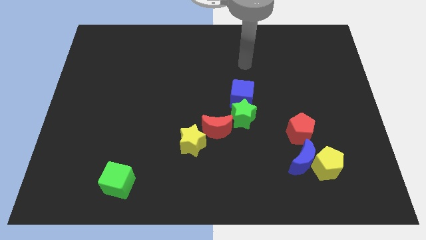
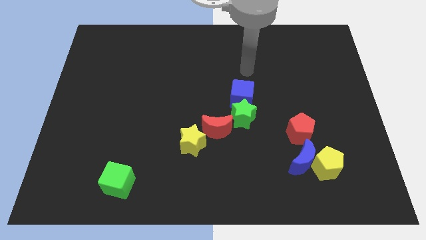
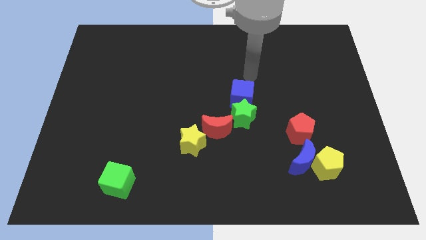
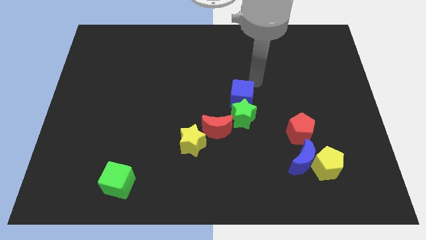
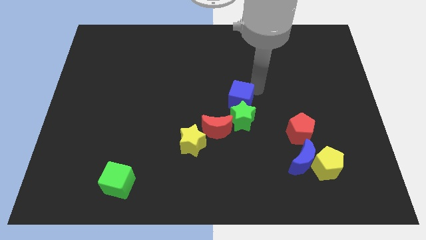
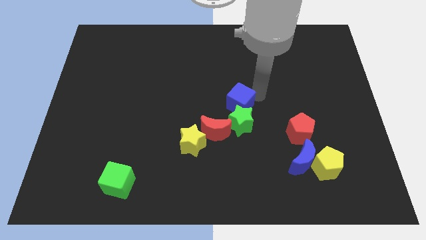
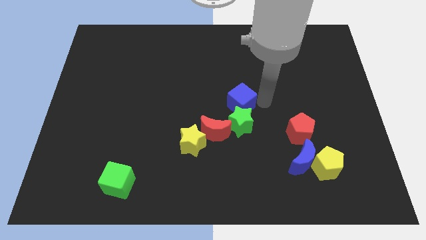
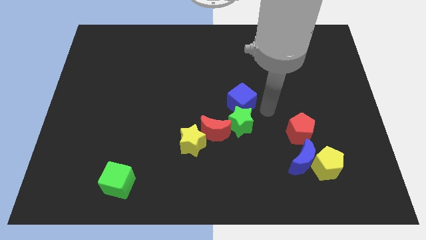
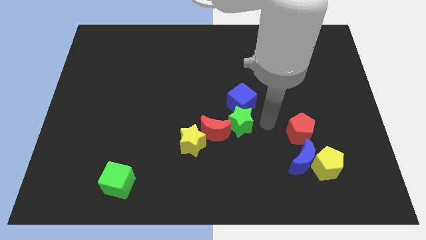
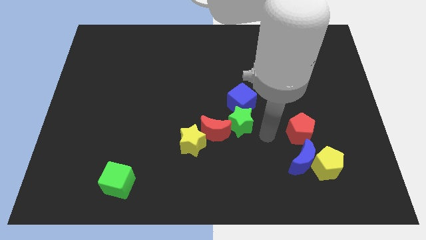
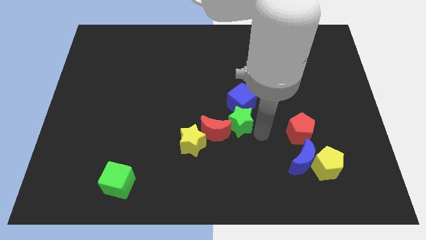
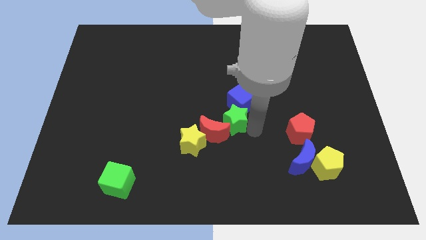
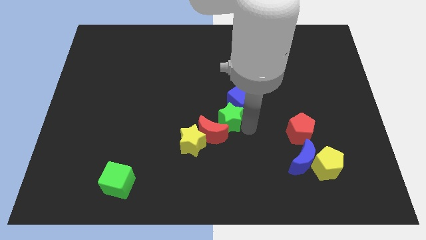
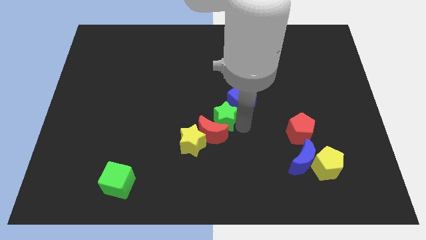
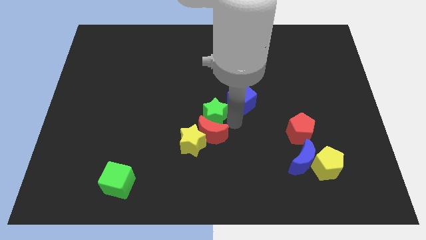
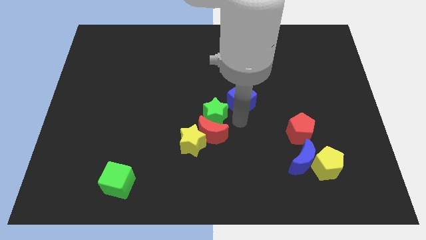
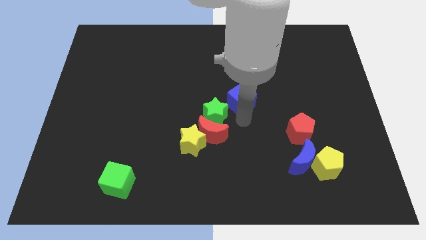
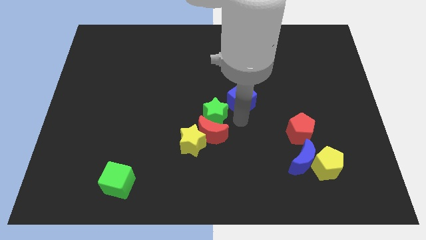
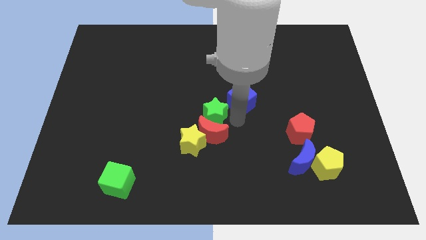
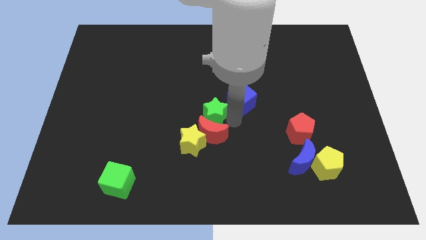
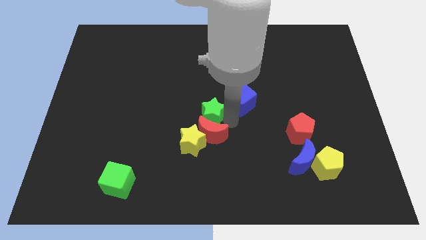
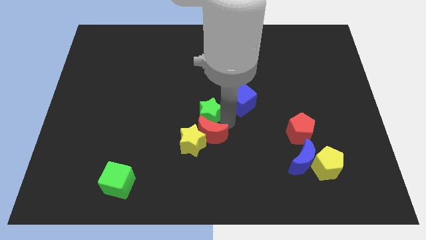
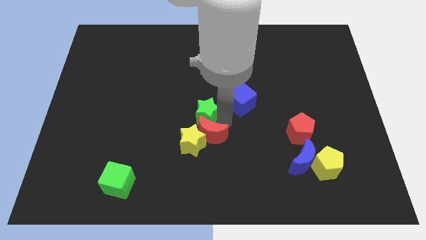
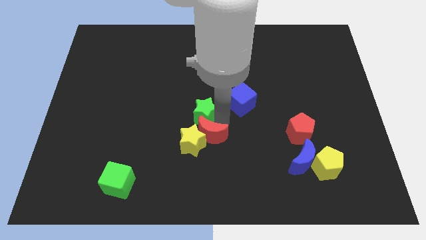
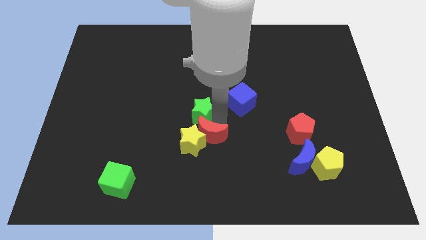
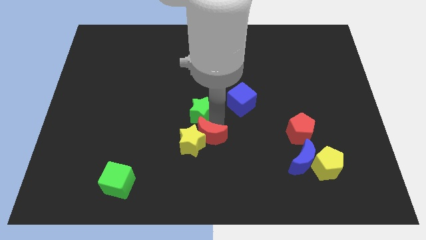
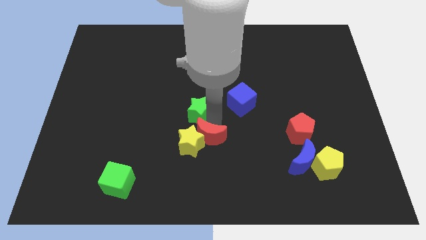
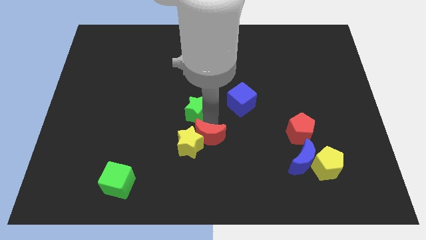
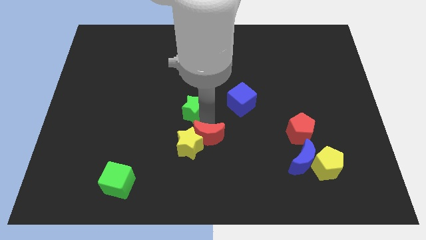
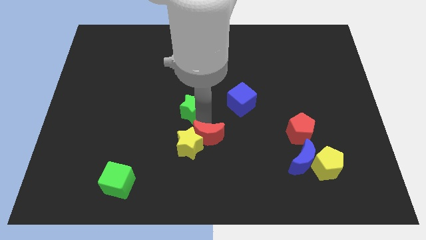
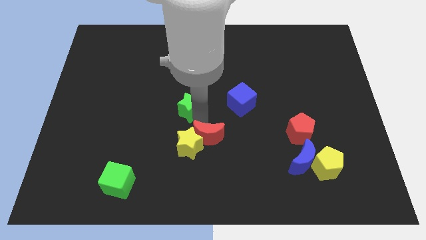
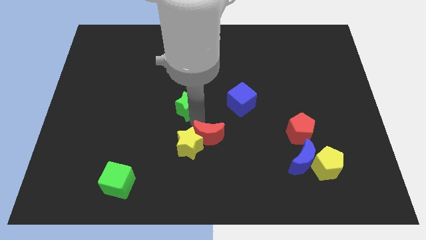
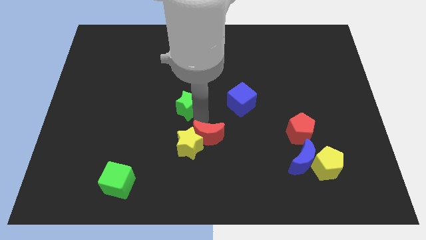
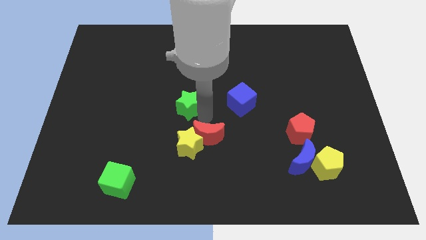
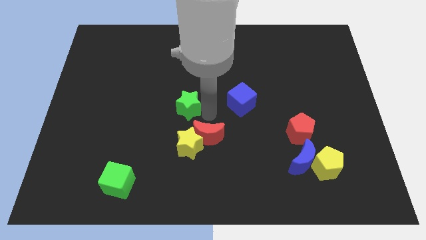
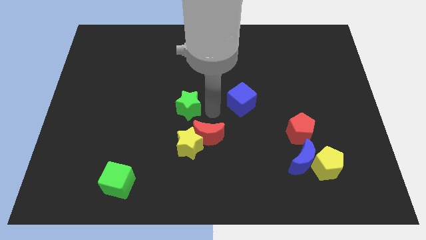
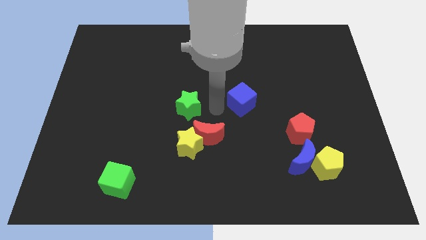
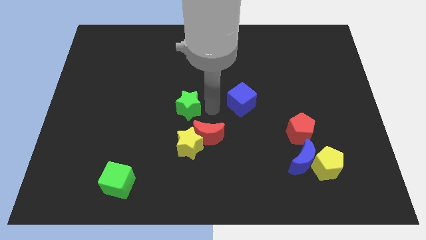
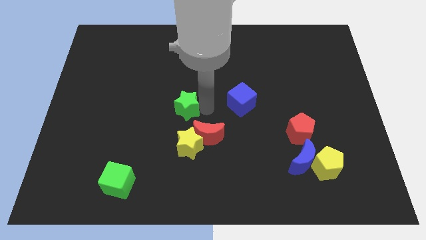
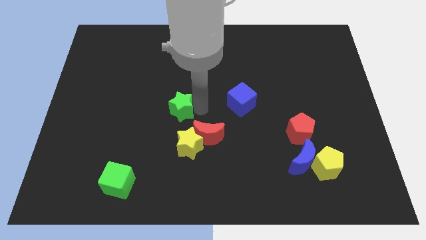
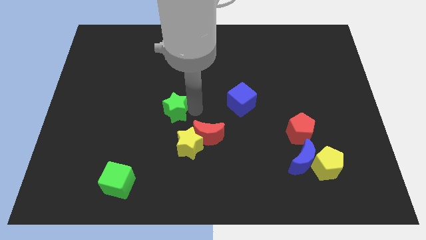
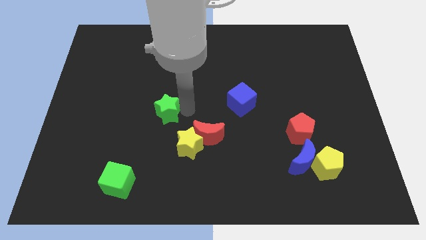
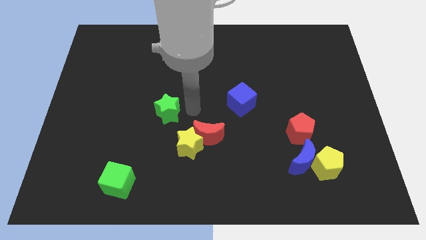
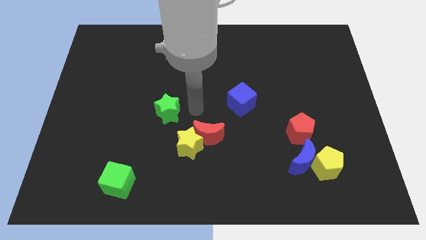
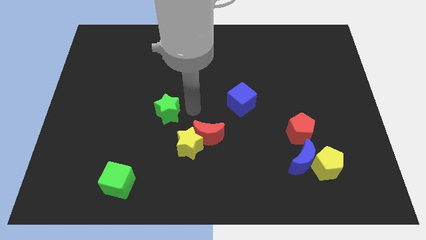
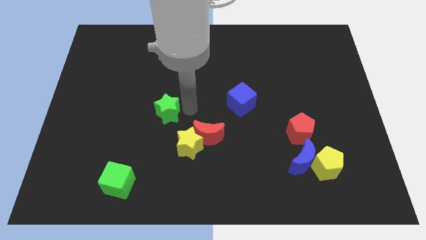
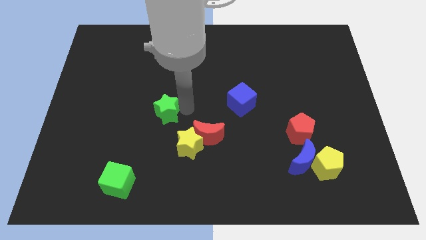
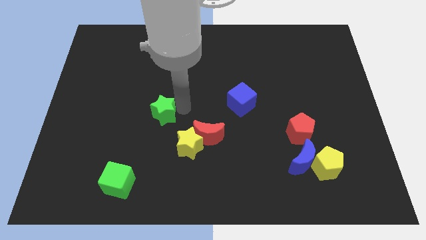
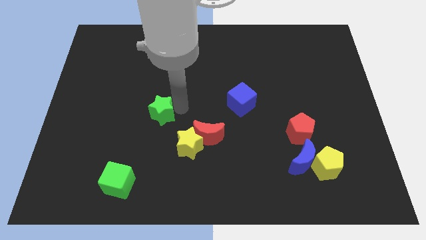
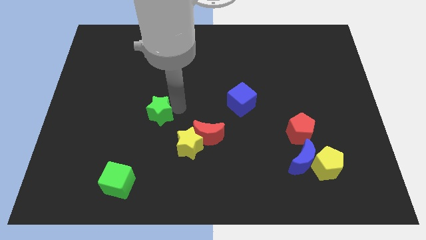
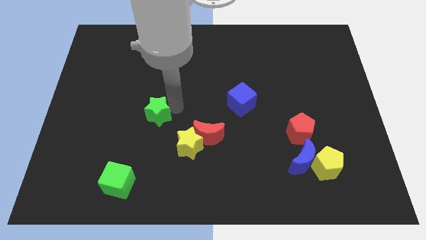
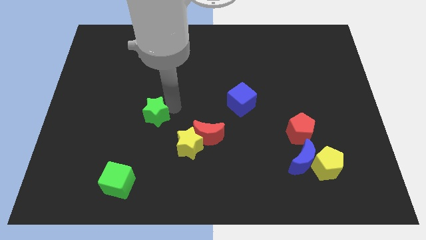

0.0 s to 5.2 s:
move the green star left

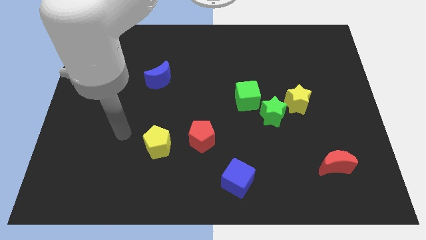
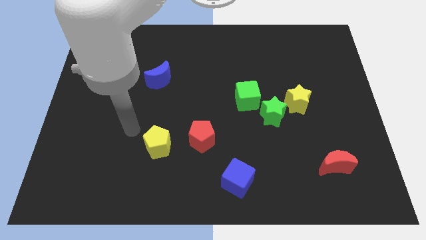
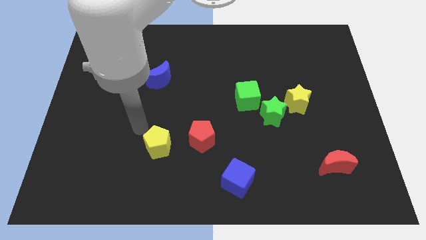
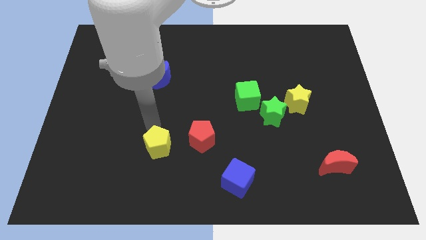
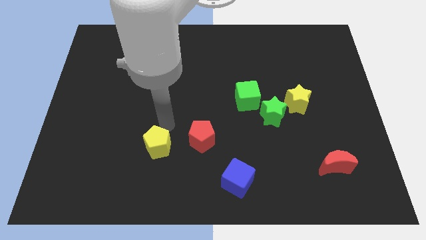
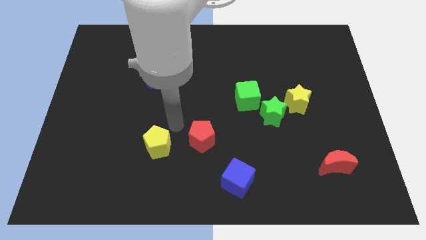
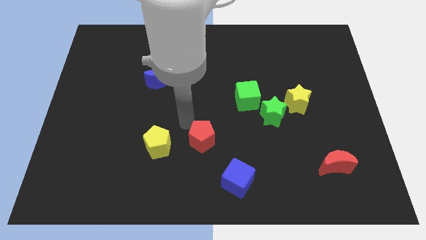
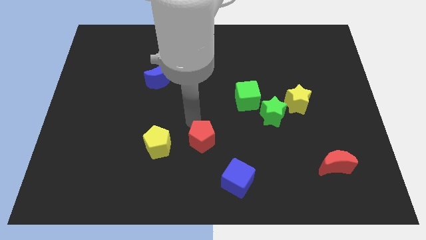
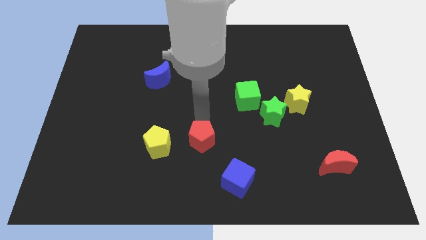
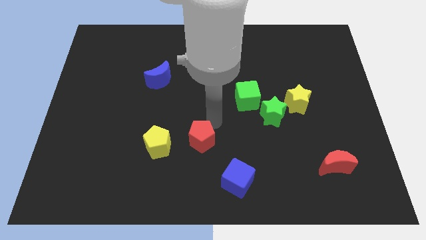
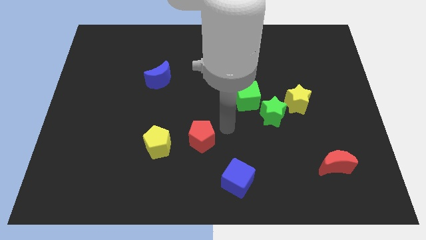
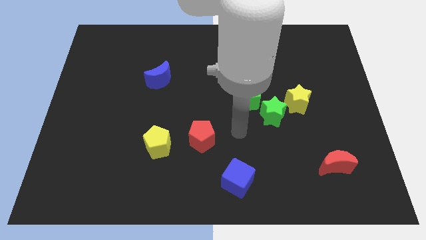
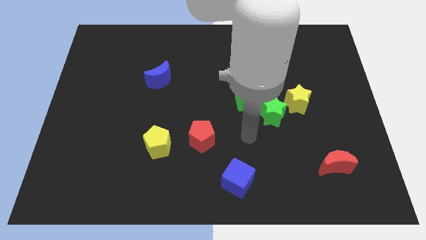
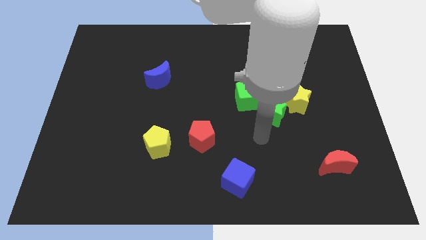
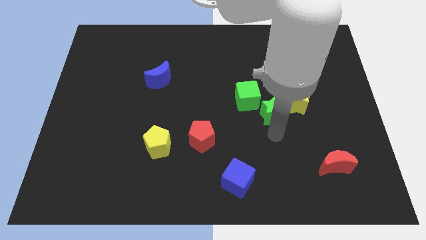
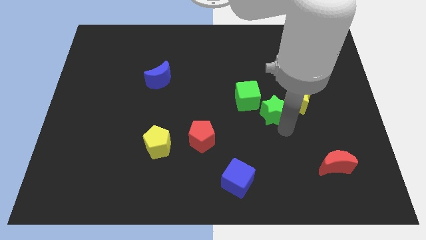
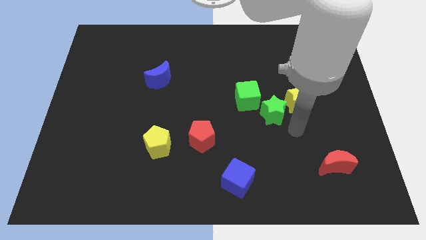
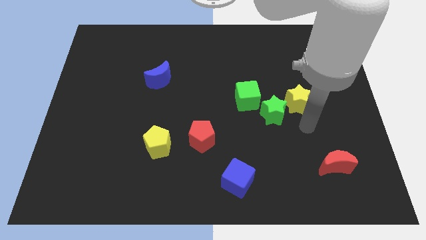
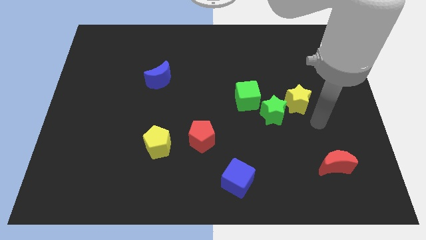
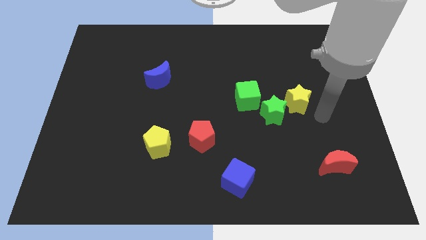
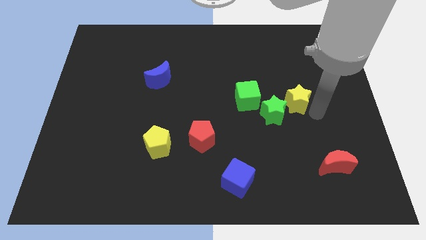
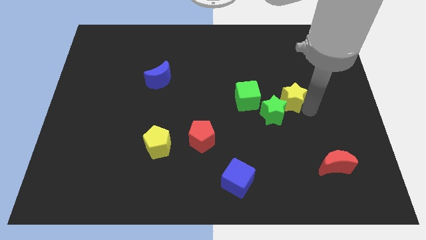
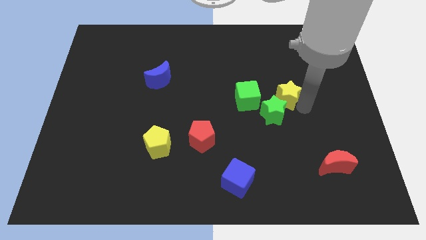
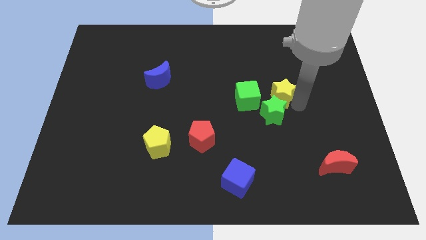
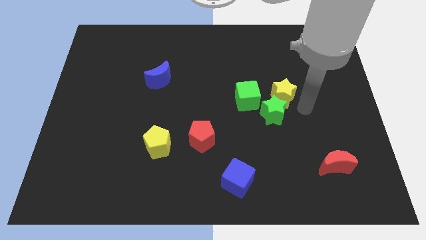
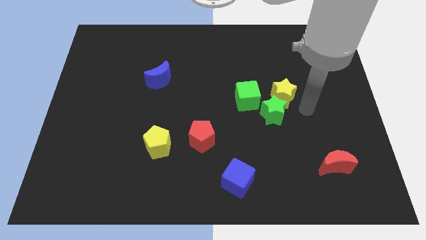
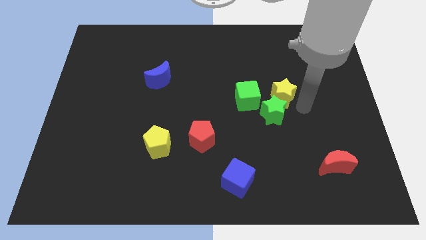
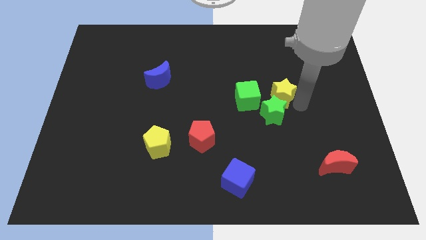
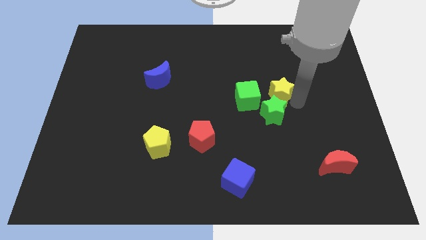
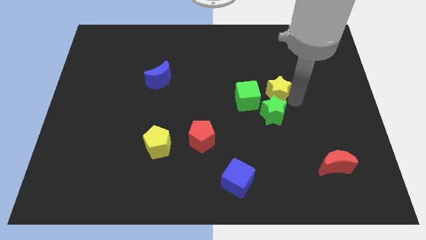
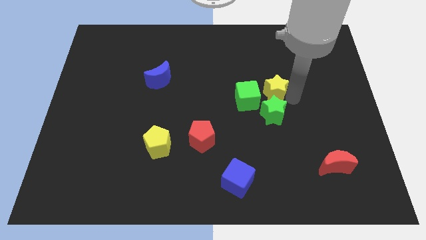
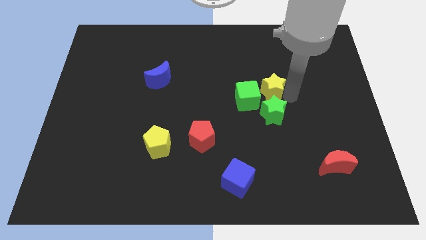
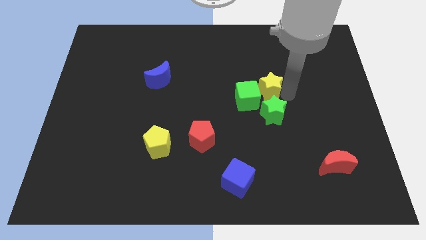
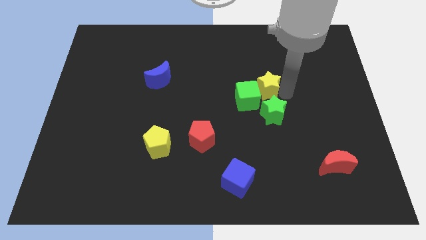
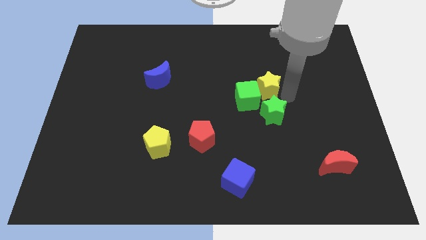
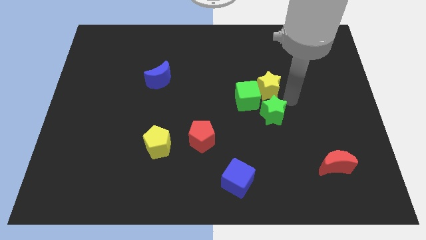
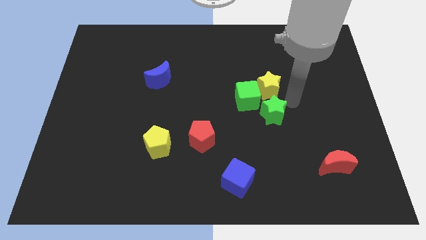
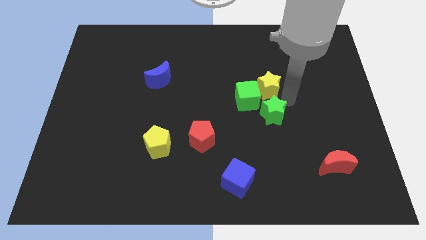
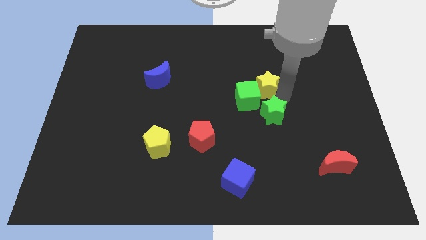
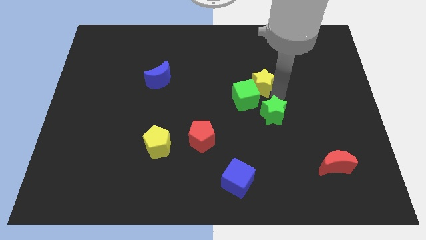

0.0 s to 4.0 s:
slightly slide the yellow star to the left
